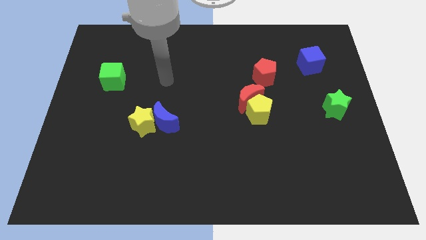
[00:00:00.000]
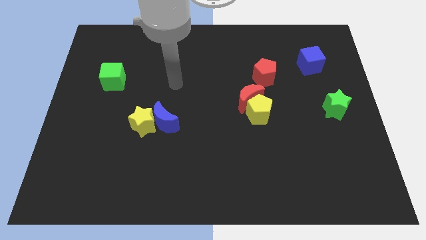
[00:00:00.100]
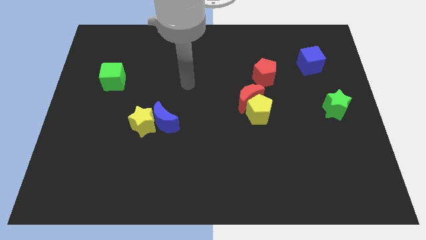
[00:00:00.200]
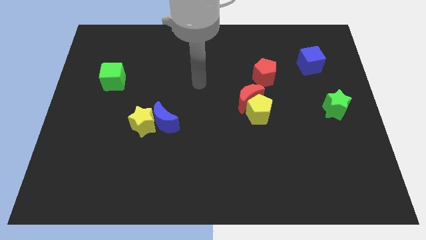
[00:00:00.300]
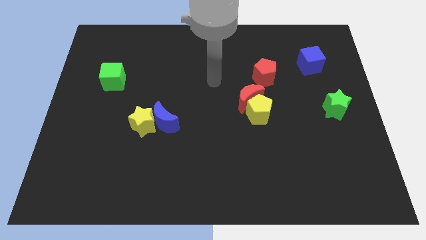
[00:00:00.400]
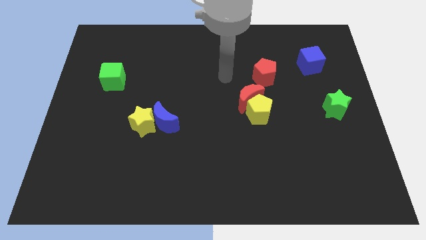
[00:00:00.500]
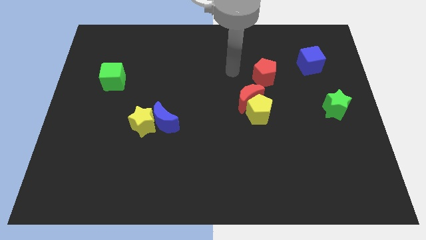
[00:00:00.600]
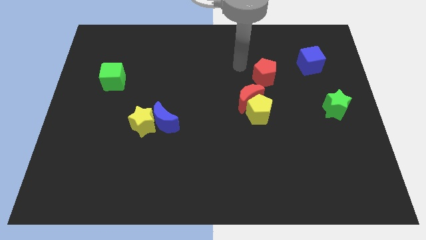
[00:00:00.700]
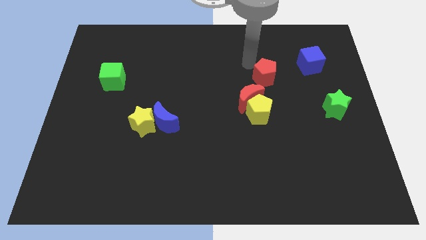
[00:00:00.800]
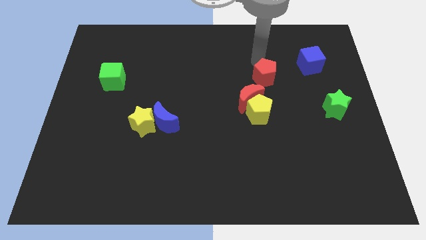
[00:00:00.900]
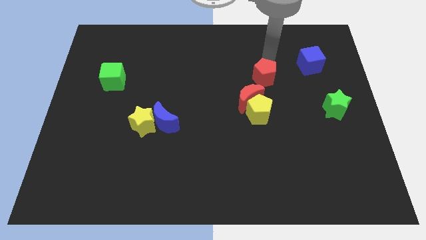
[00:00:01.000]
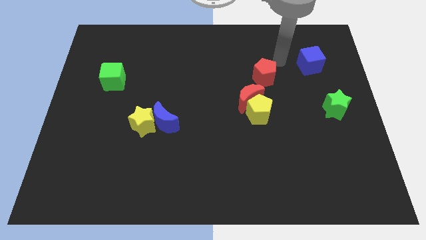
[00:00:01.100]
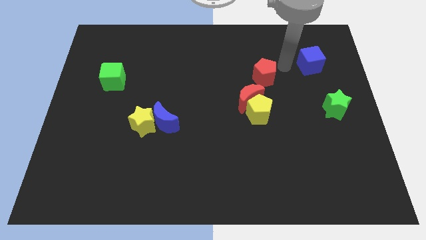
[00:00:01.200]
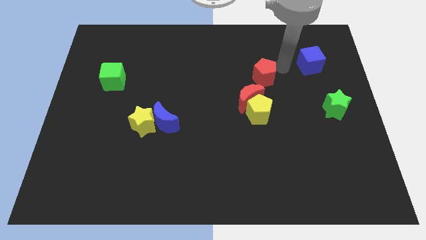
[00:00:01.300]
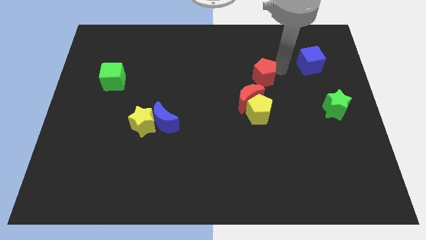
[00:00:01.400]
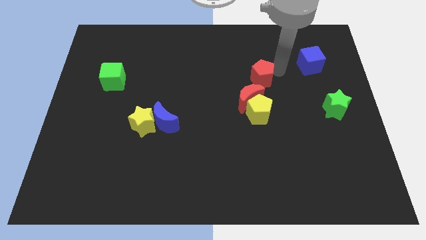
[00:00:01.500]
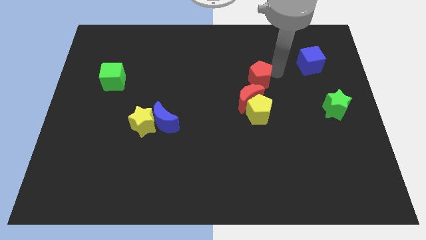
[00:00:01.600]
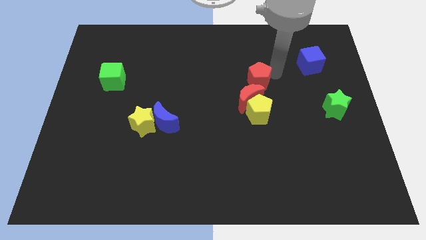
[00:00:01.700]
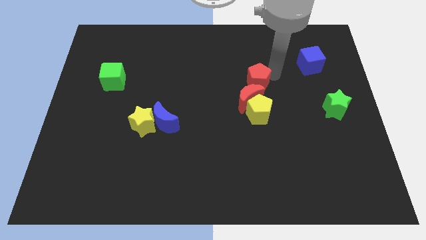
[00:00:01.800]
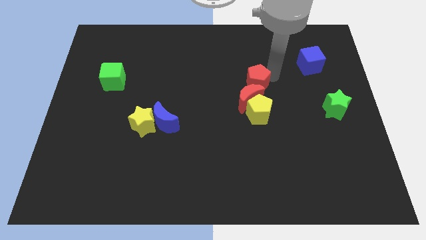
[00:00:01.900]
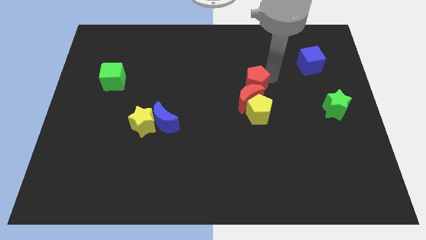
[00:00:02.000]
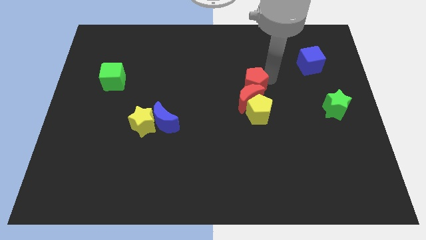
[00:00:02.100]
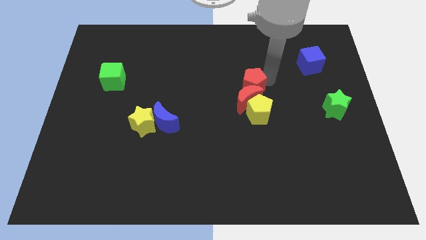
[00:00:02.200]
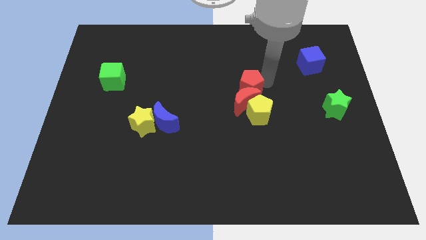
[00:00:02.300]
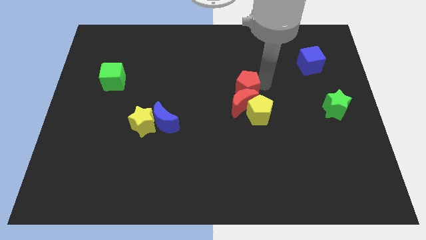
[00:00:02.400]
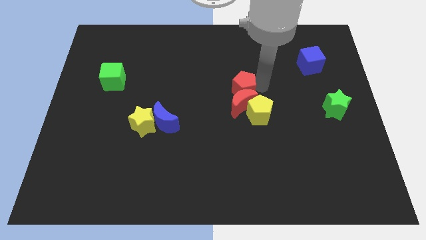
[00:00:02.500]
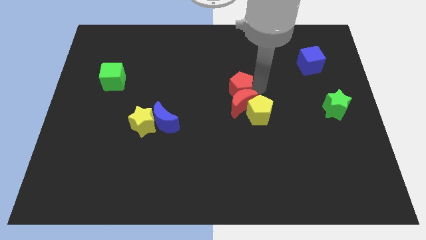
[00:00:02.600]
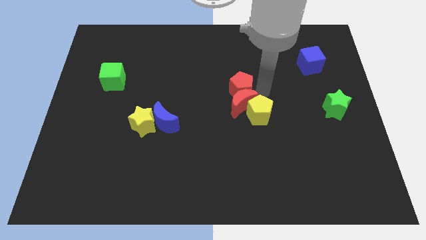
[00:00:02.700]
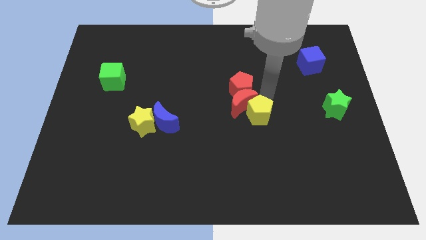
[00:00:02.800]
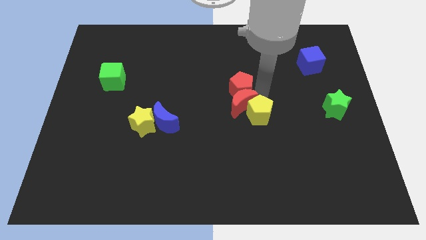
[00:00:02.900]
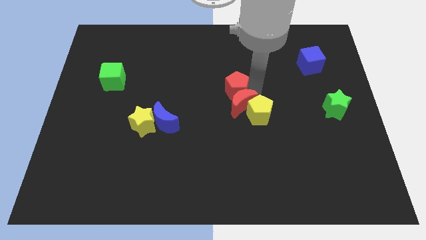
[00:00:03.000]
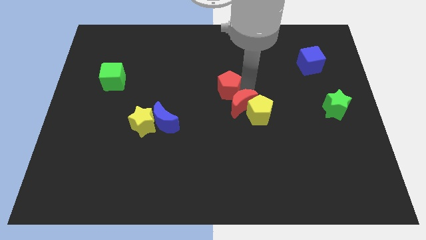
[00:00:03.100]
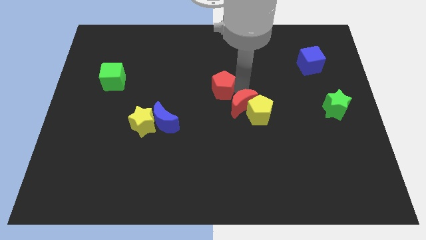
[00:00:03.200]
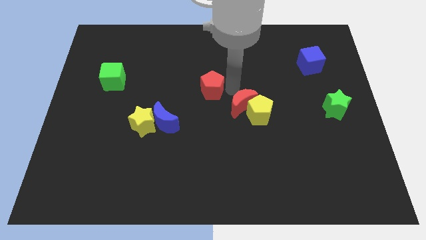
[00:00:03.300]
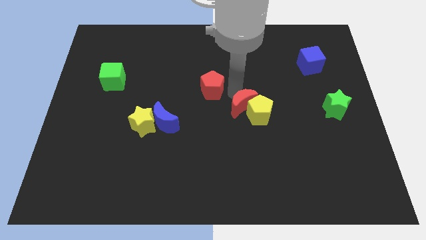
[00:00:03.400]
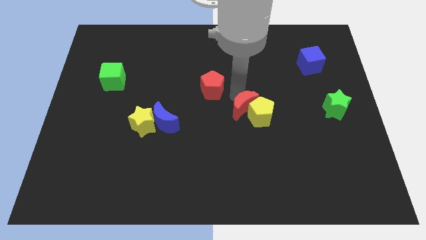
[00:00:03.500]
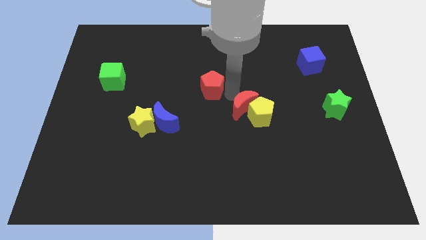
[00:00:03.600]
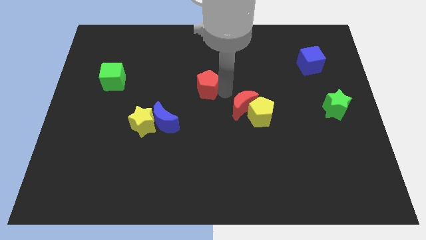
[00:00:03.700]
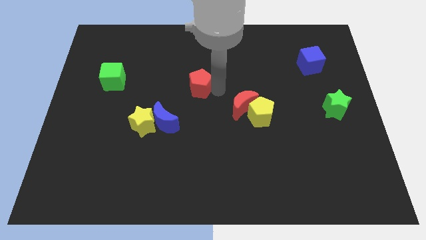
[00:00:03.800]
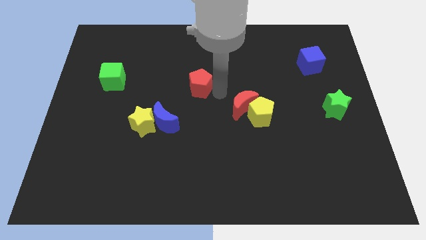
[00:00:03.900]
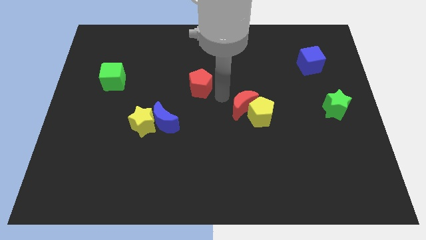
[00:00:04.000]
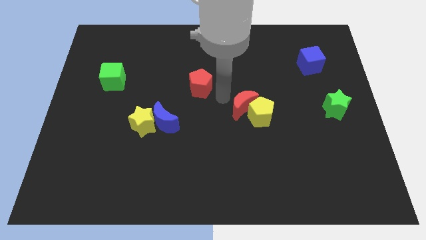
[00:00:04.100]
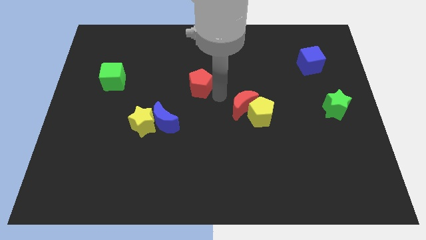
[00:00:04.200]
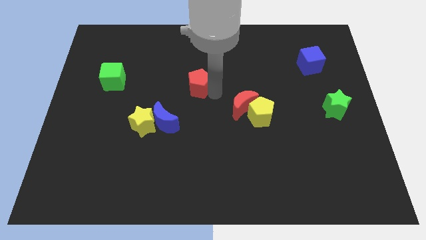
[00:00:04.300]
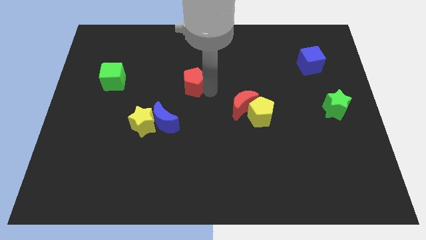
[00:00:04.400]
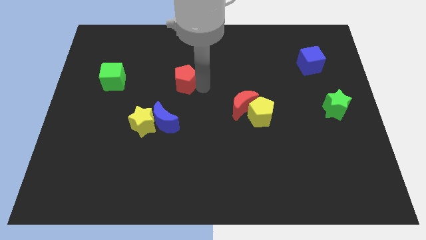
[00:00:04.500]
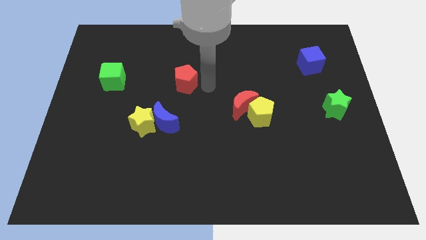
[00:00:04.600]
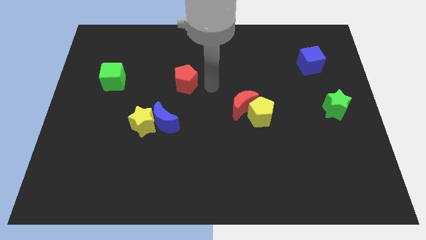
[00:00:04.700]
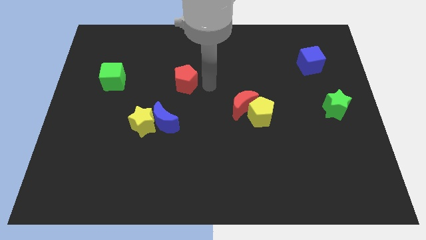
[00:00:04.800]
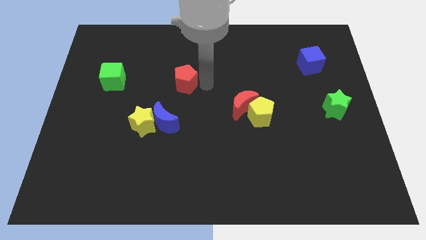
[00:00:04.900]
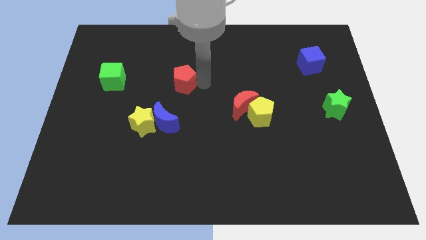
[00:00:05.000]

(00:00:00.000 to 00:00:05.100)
slide the red pentagon to the left

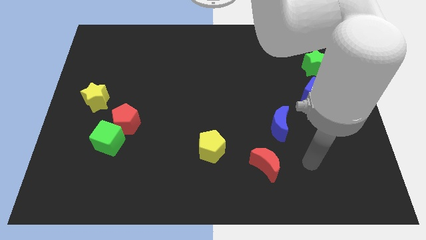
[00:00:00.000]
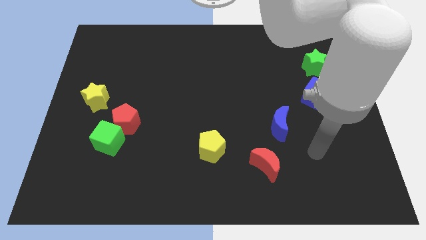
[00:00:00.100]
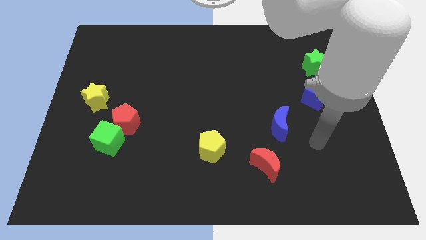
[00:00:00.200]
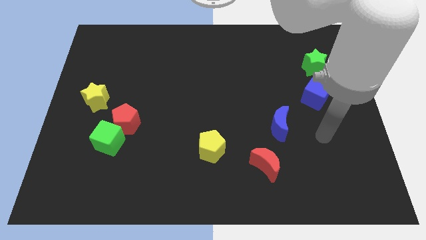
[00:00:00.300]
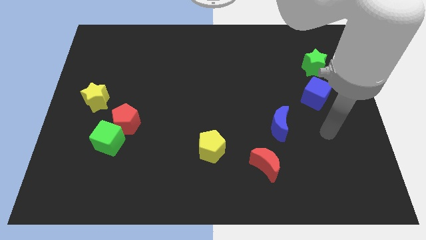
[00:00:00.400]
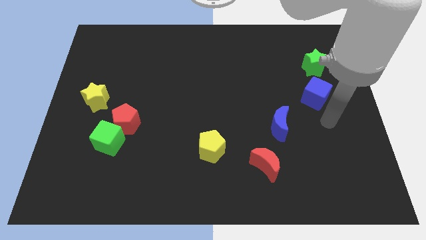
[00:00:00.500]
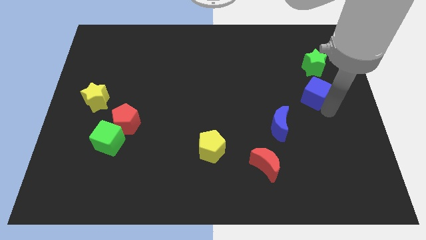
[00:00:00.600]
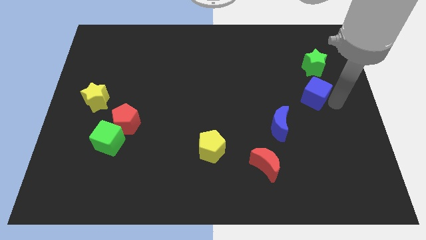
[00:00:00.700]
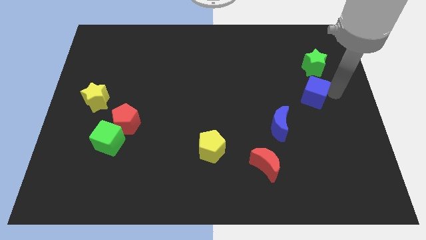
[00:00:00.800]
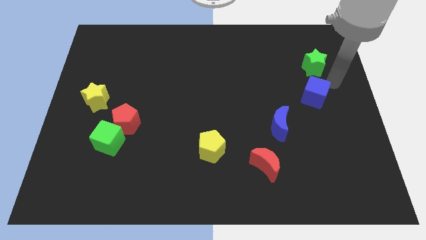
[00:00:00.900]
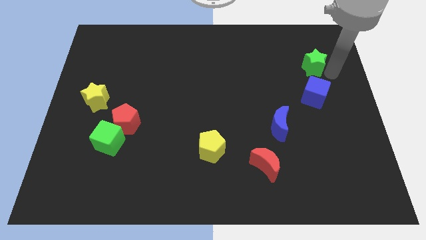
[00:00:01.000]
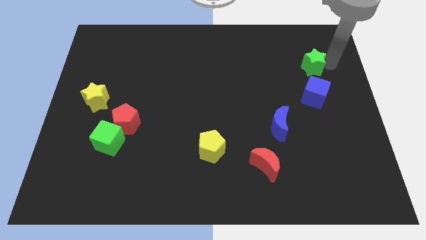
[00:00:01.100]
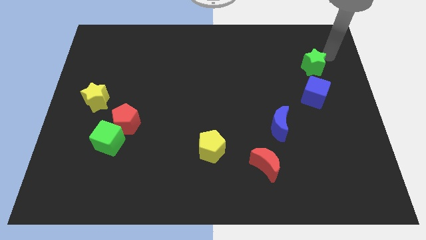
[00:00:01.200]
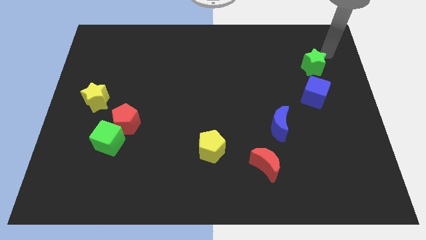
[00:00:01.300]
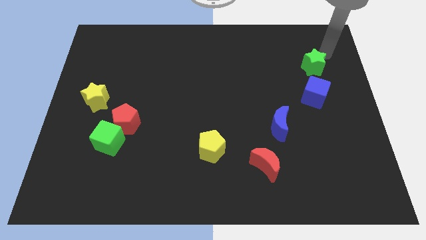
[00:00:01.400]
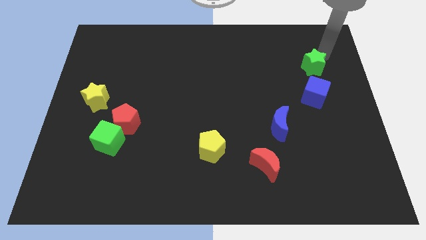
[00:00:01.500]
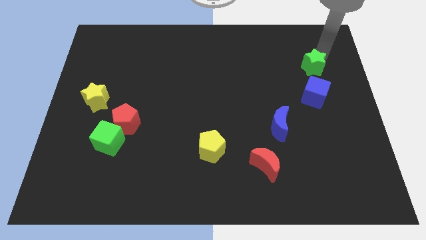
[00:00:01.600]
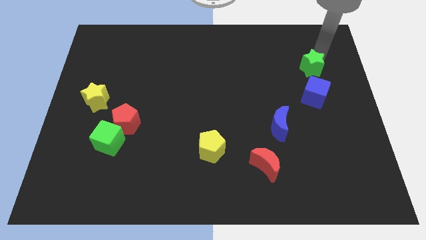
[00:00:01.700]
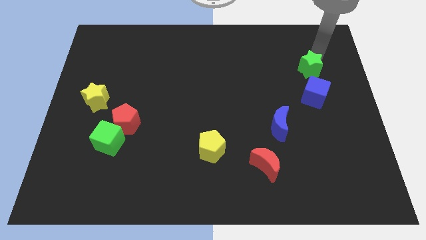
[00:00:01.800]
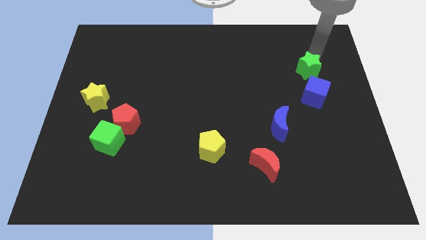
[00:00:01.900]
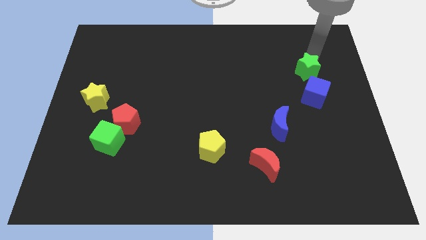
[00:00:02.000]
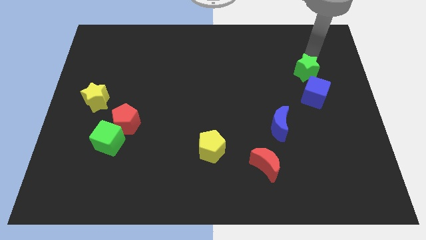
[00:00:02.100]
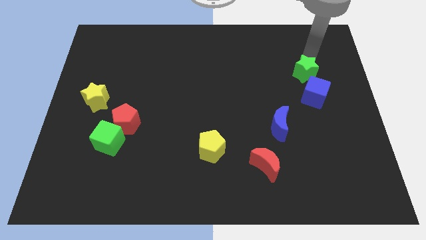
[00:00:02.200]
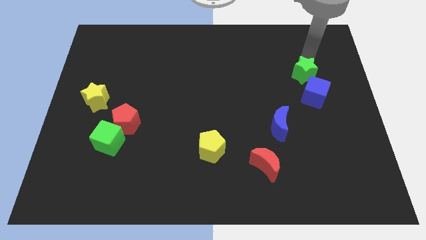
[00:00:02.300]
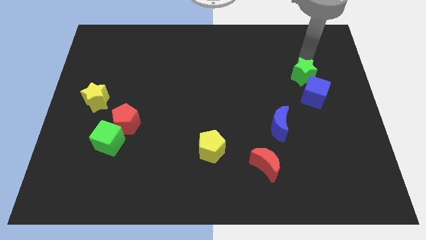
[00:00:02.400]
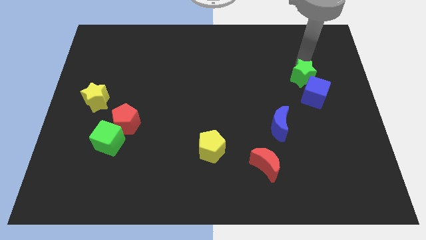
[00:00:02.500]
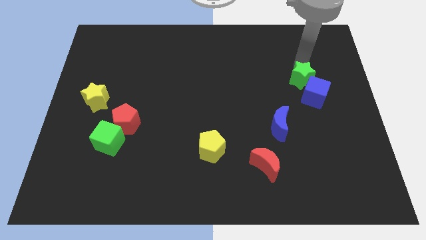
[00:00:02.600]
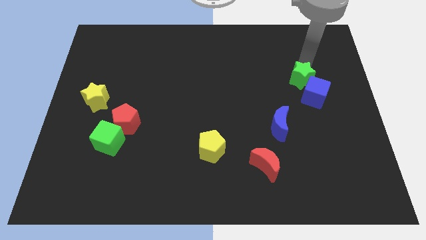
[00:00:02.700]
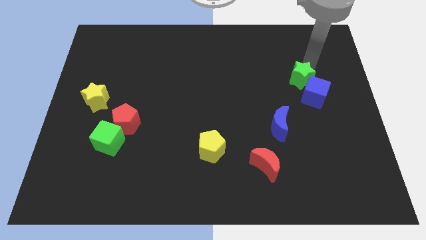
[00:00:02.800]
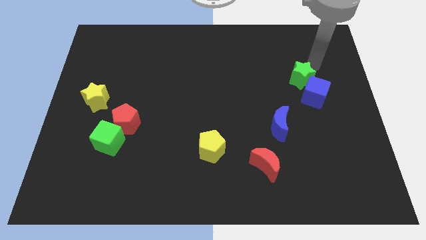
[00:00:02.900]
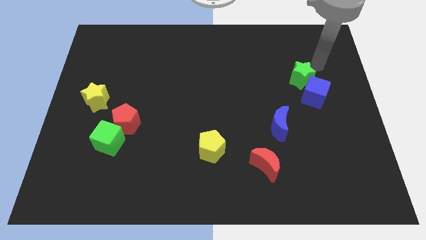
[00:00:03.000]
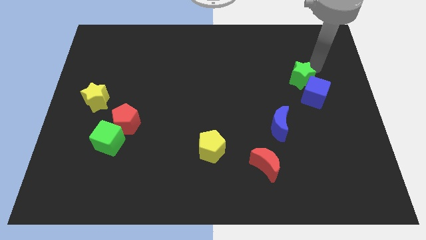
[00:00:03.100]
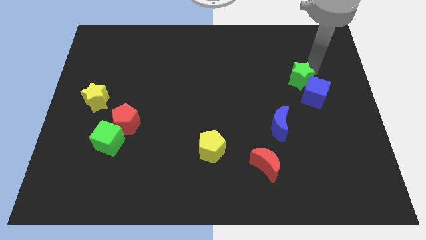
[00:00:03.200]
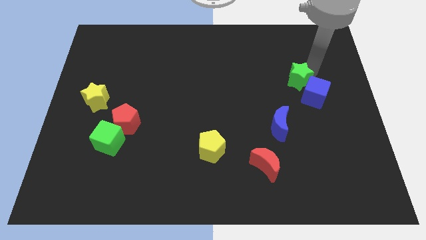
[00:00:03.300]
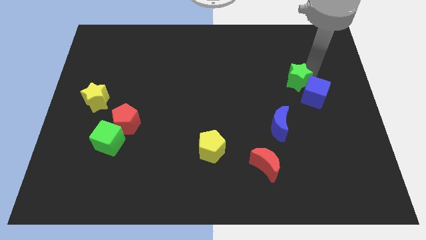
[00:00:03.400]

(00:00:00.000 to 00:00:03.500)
slide the green star downwards and left diagonally somewhat
